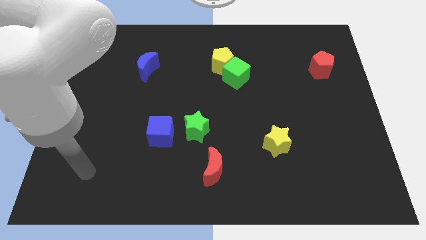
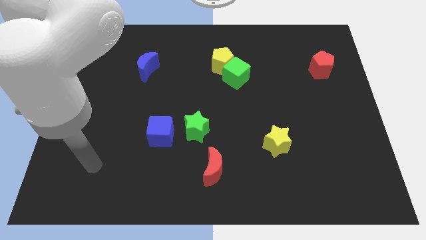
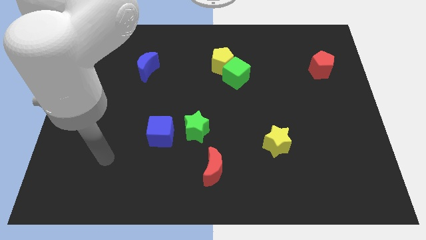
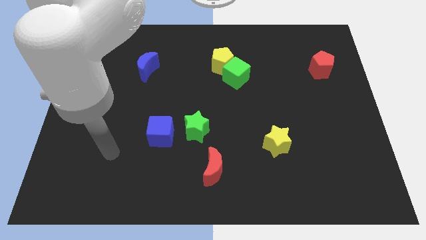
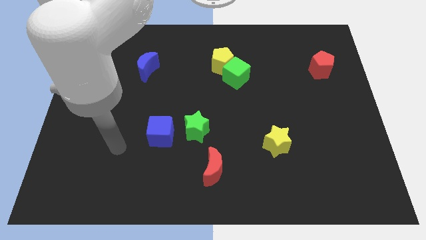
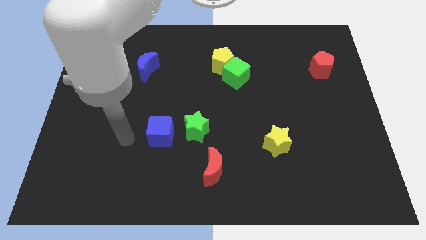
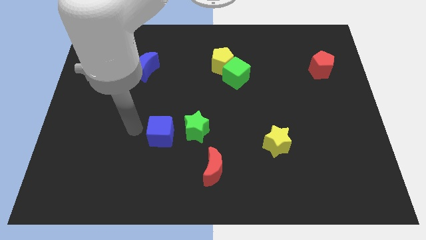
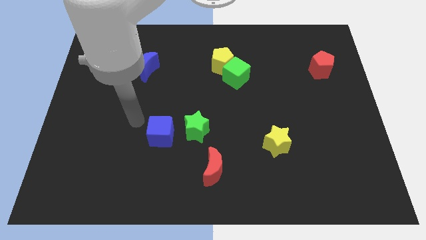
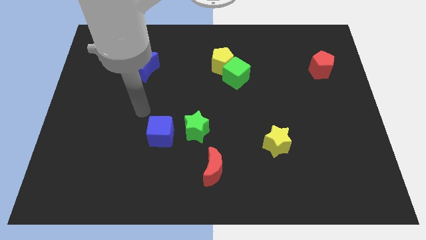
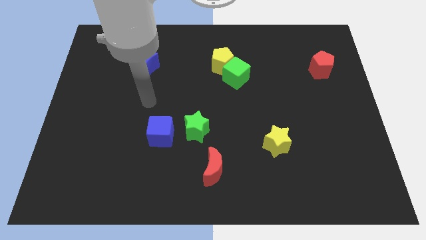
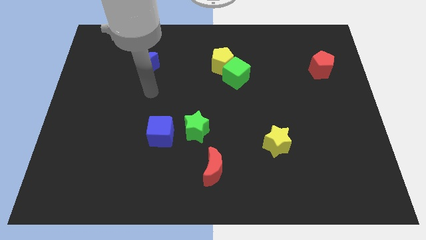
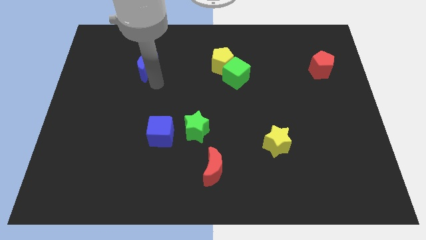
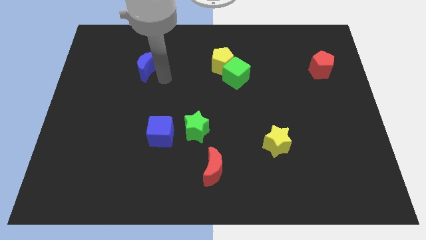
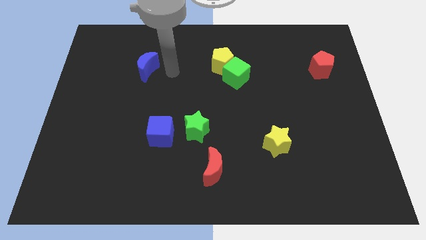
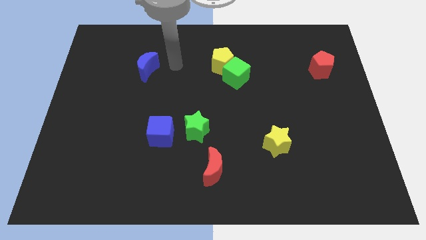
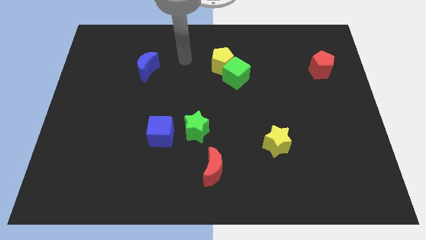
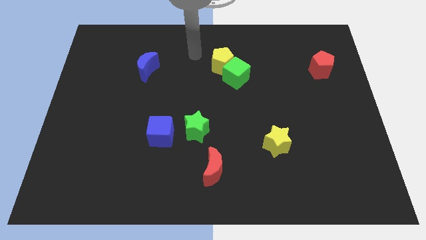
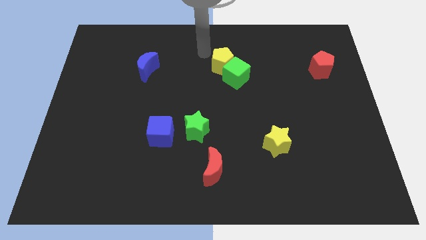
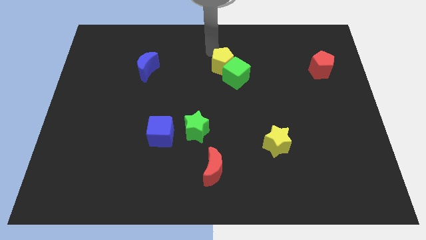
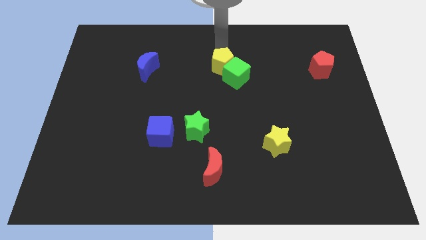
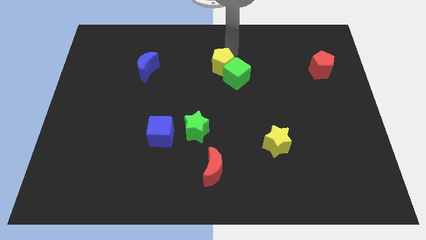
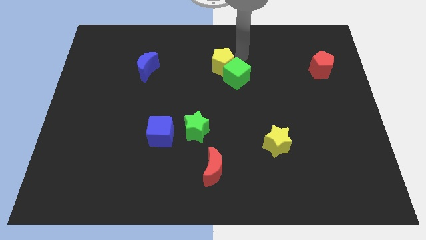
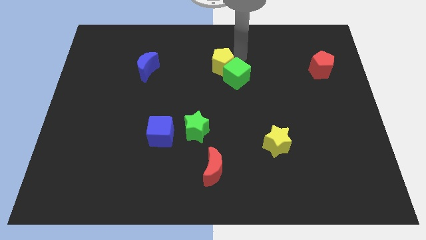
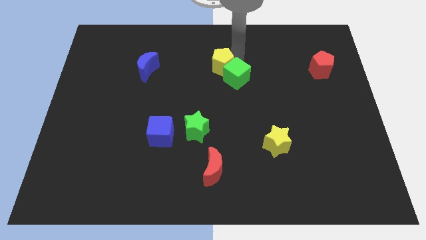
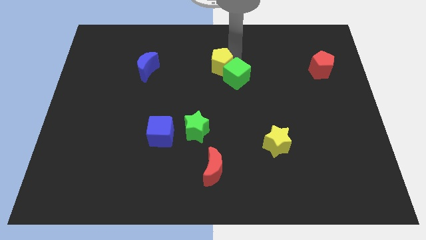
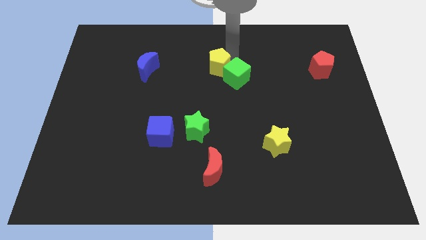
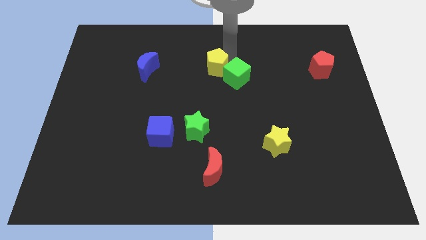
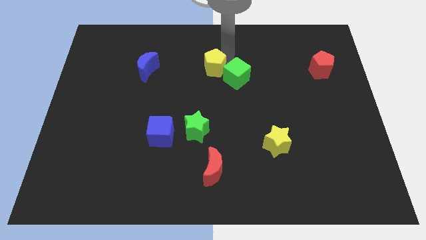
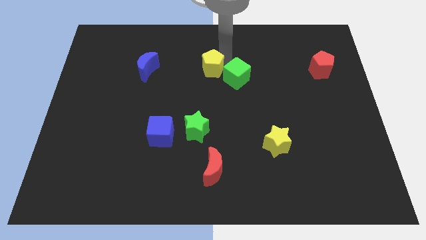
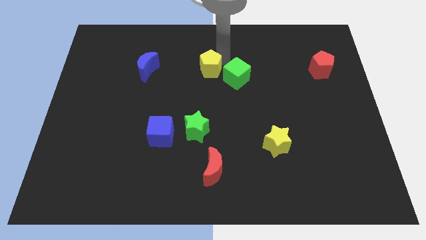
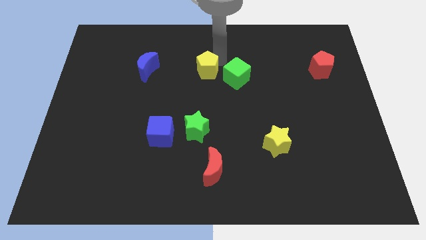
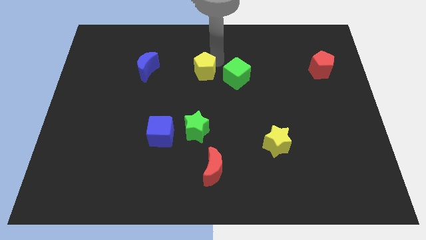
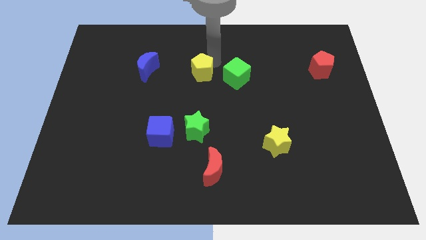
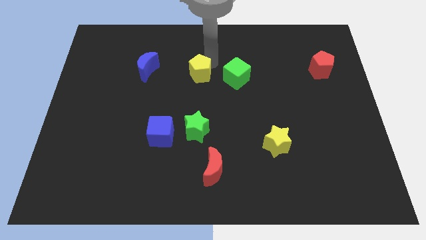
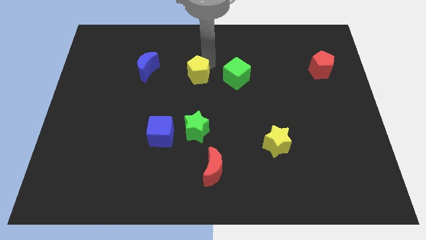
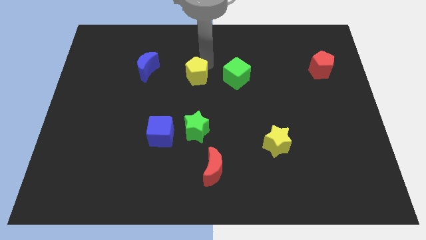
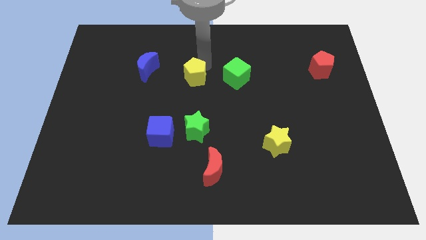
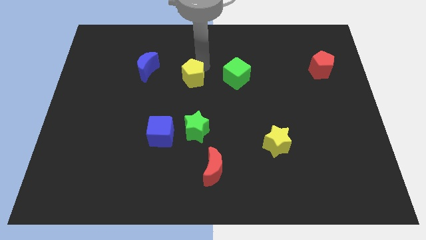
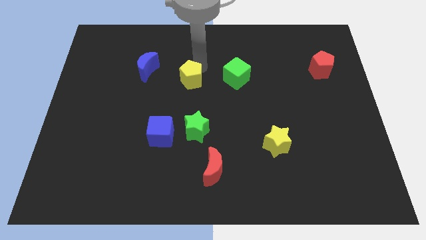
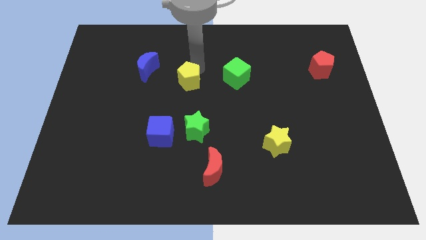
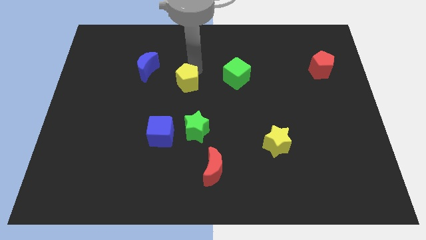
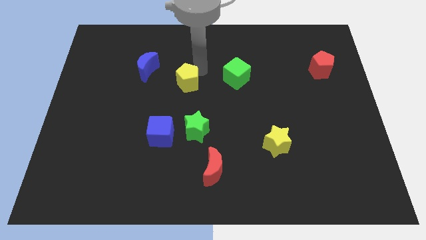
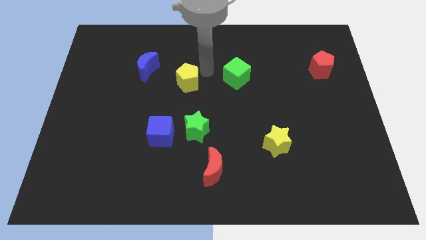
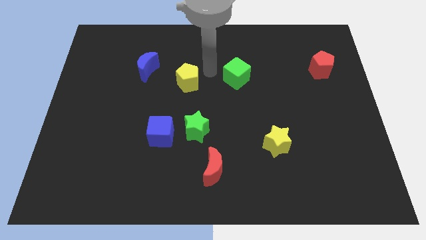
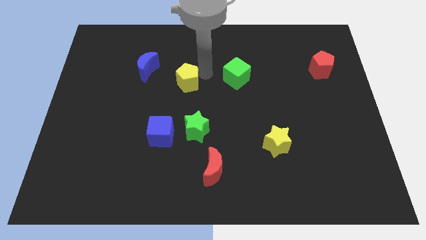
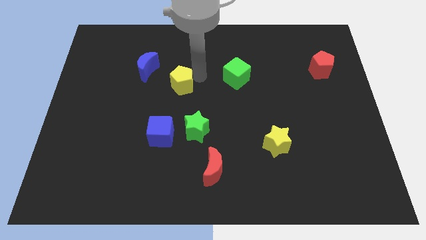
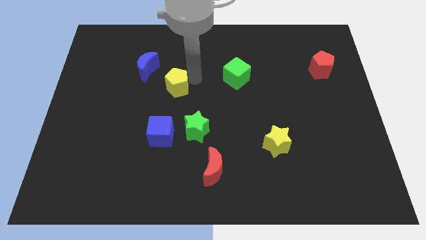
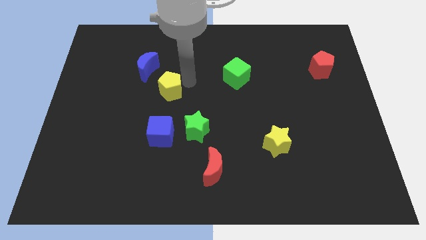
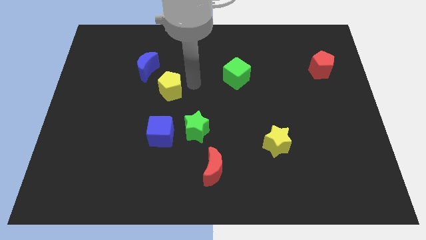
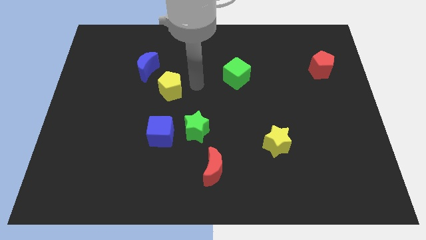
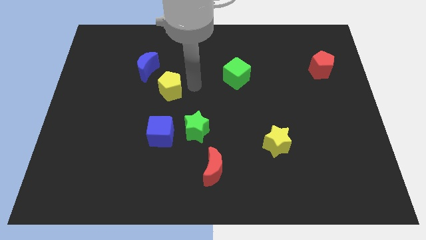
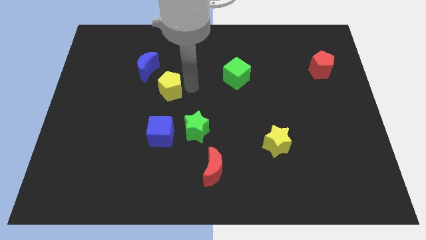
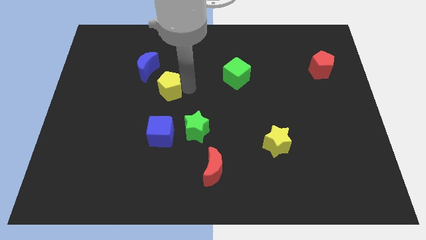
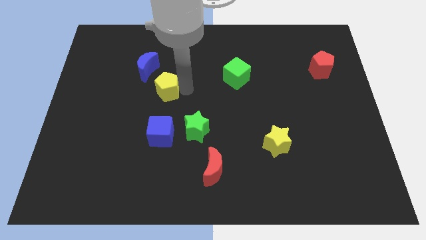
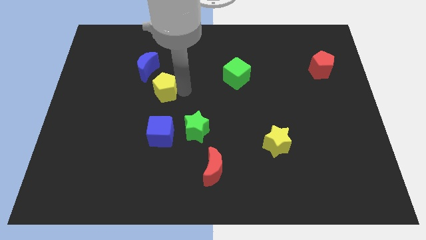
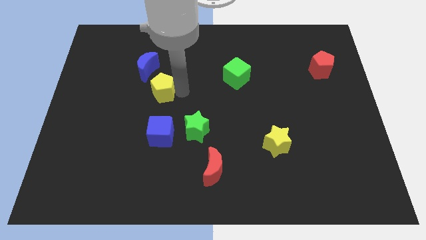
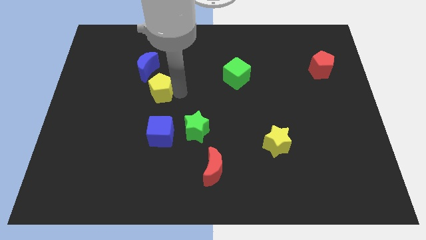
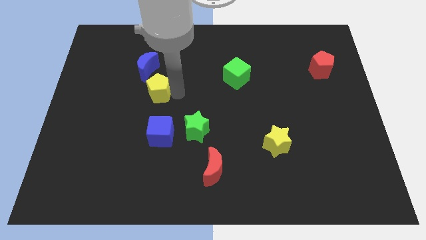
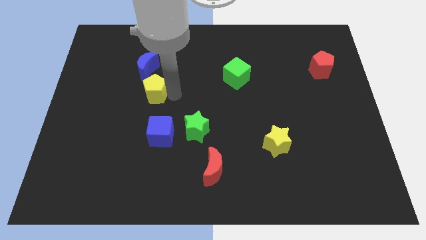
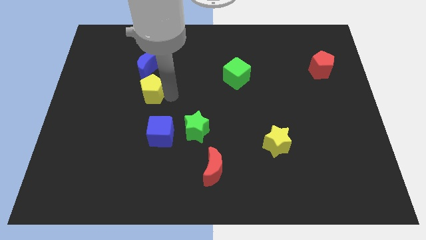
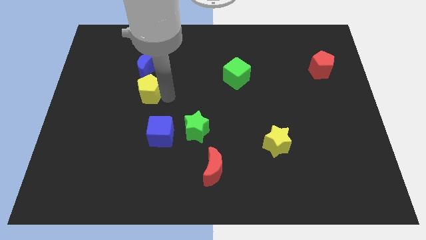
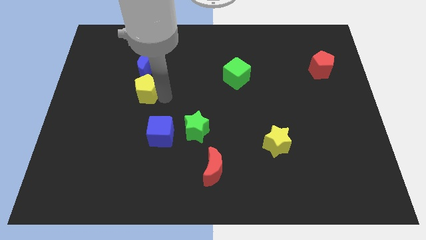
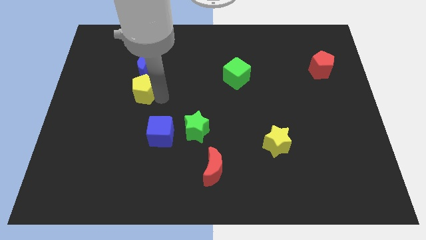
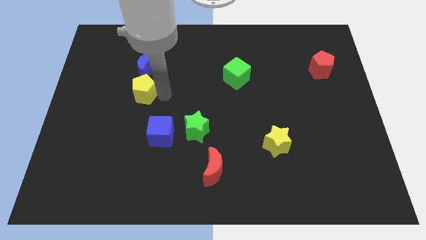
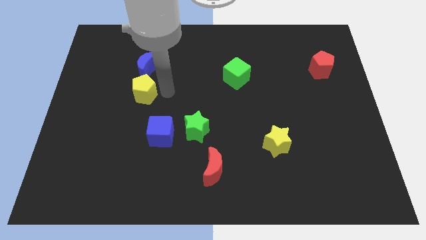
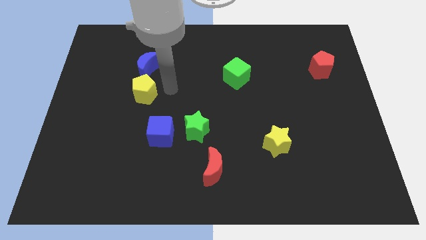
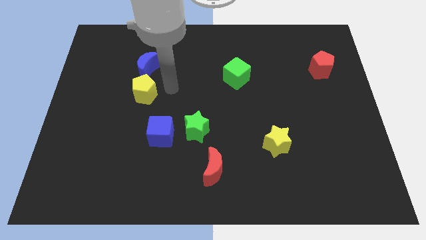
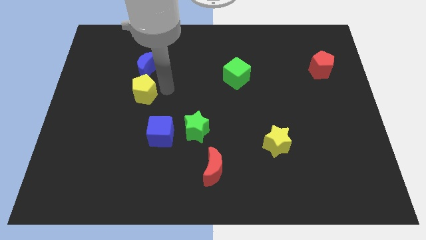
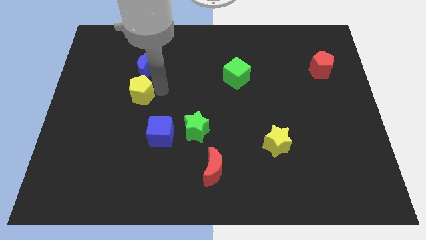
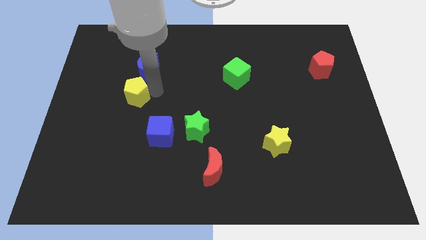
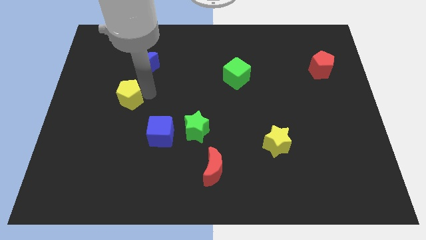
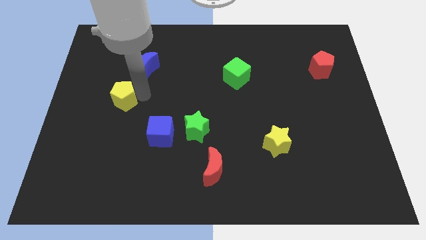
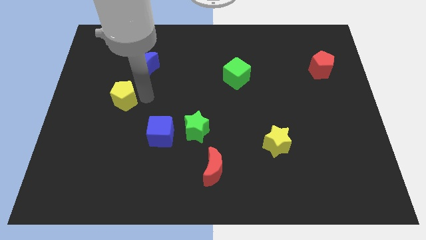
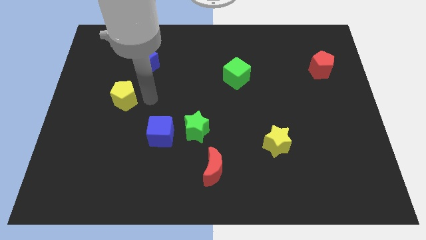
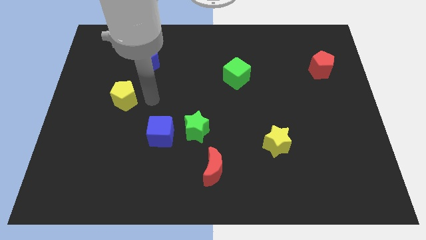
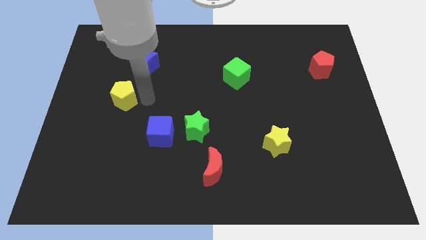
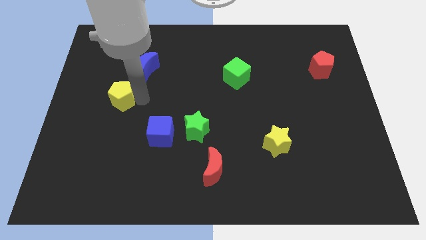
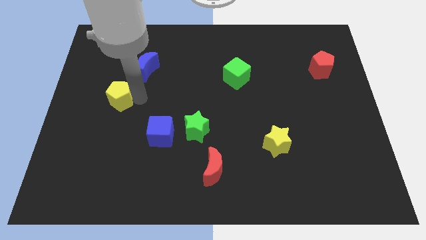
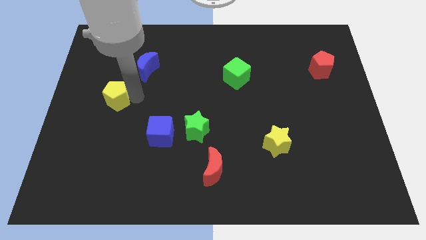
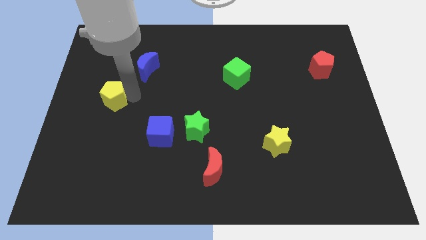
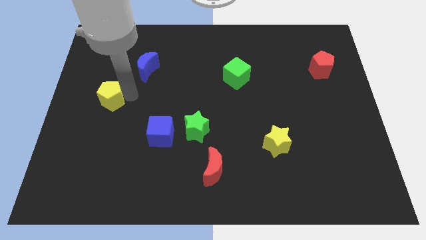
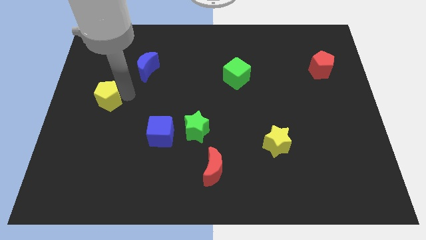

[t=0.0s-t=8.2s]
slide the yellow pentagon to the center left

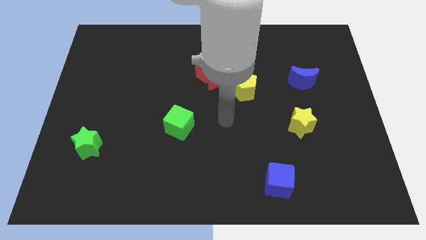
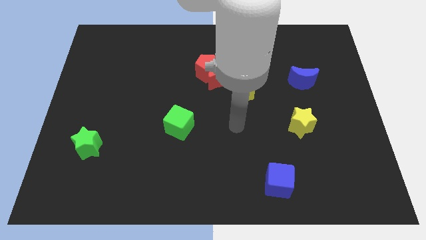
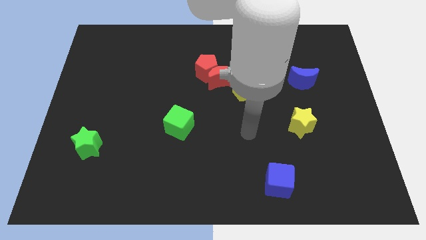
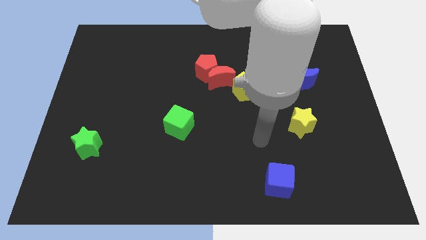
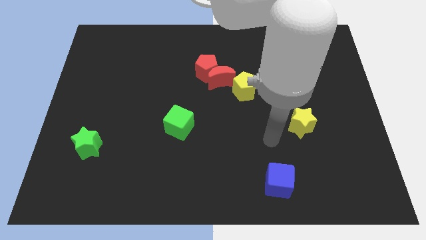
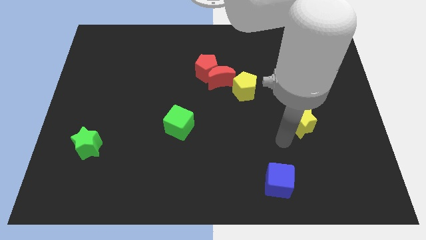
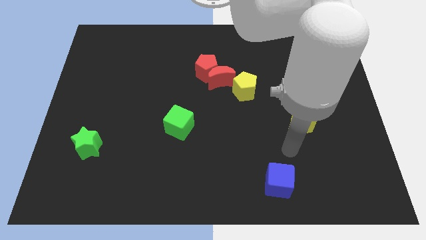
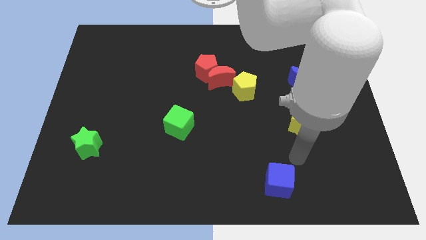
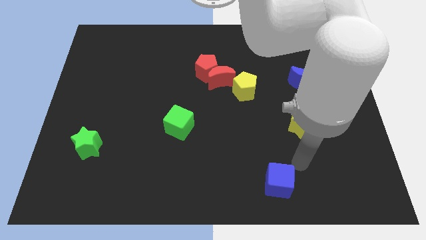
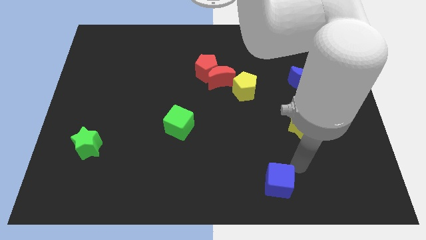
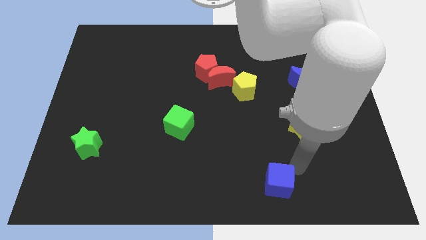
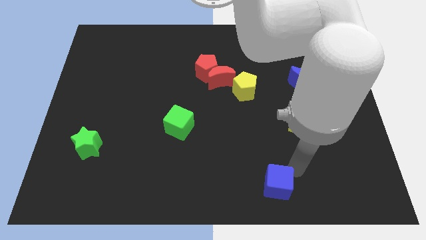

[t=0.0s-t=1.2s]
move the blue cube to the bottom side
